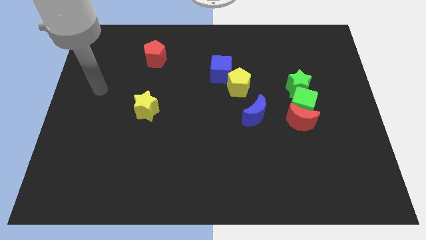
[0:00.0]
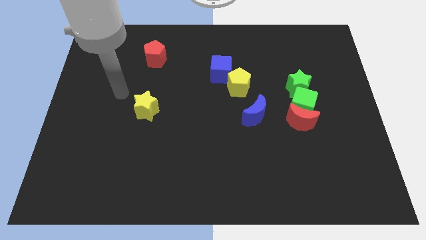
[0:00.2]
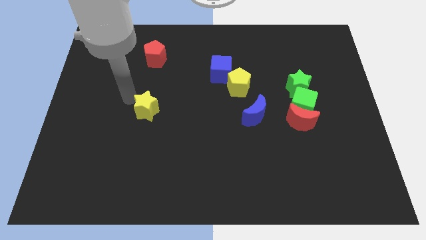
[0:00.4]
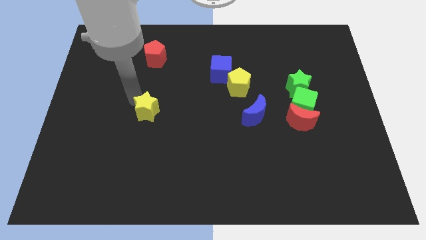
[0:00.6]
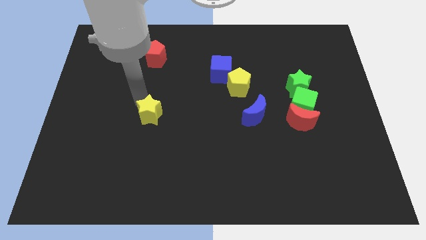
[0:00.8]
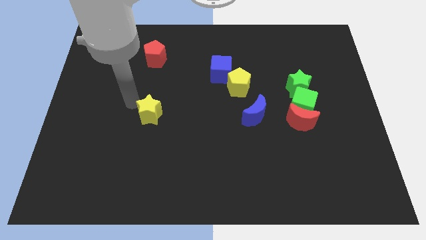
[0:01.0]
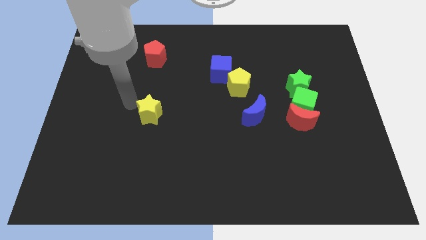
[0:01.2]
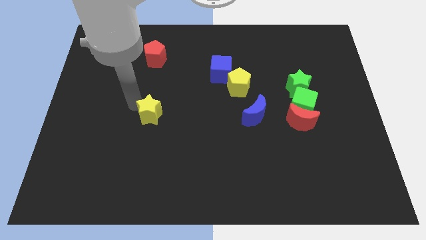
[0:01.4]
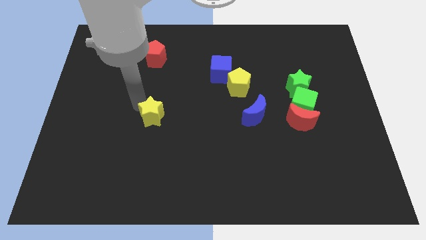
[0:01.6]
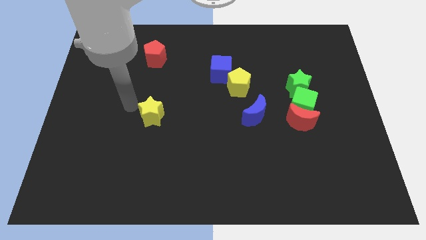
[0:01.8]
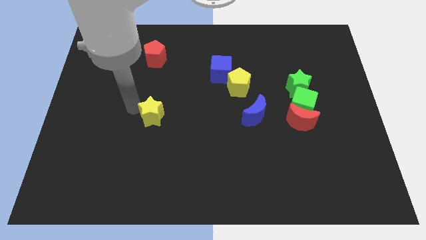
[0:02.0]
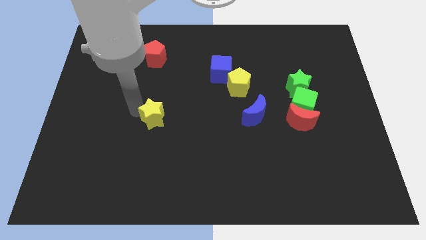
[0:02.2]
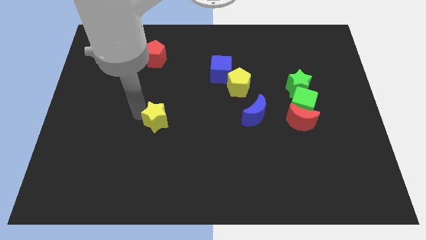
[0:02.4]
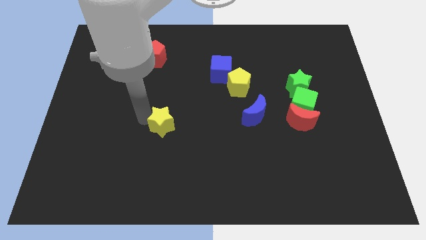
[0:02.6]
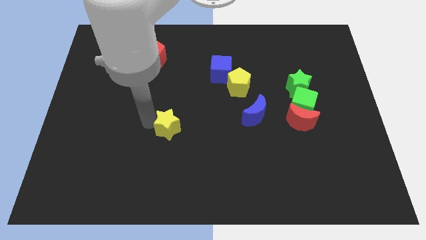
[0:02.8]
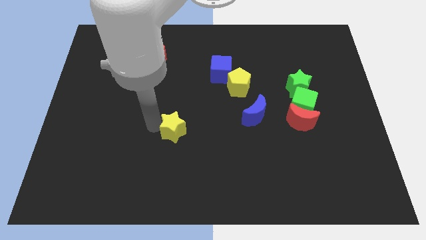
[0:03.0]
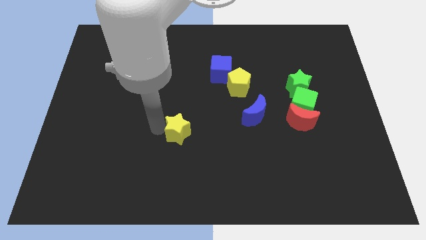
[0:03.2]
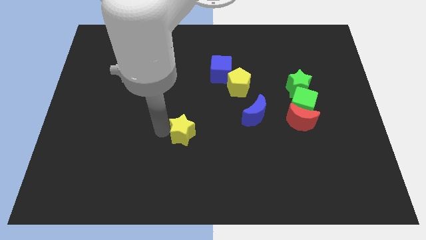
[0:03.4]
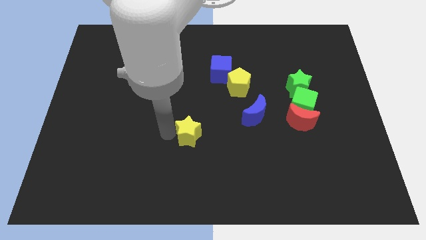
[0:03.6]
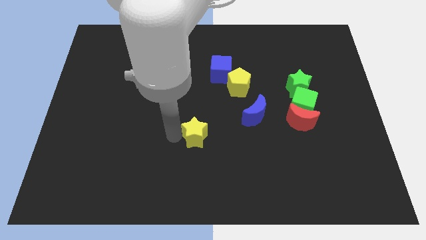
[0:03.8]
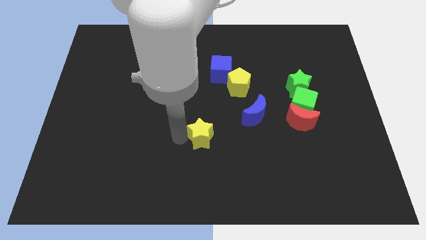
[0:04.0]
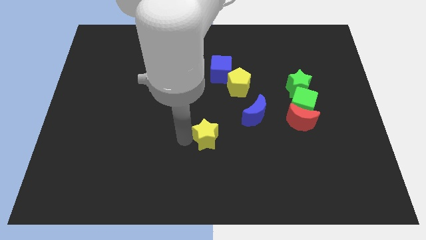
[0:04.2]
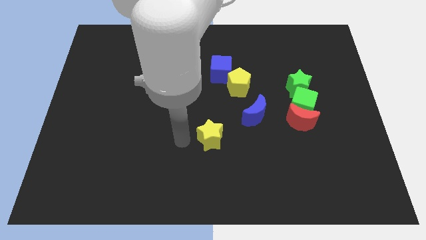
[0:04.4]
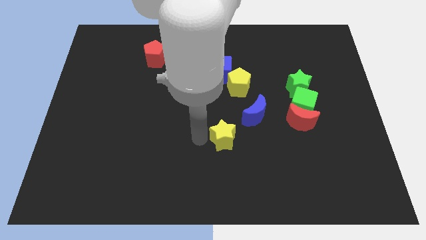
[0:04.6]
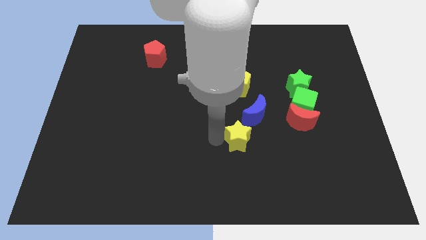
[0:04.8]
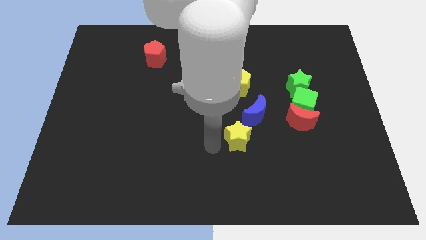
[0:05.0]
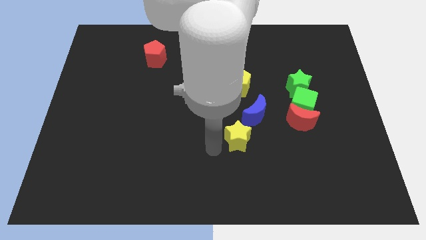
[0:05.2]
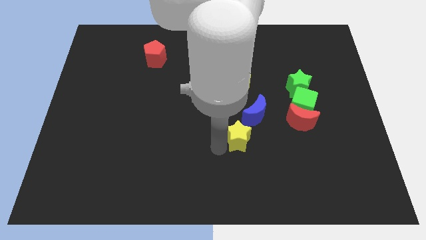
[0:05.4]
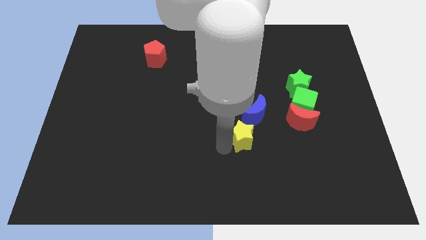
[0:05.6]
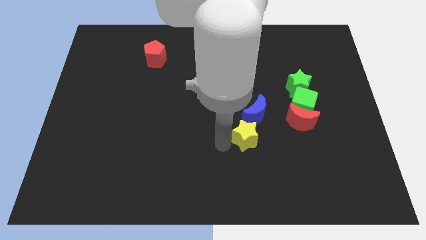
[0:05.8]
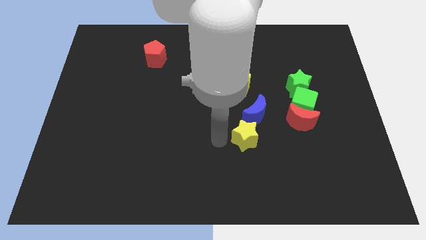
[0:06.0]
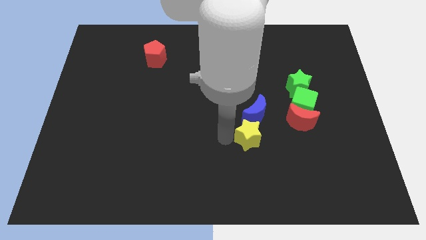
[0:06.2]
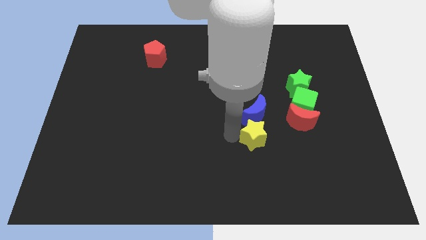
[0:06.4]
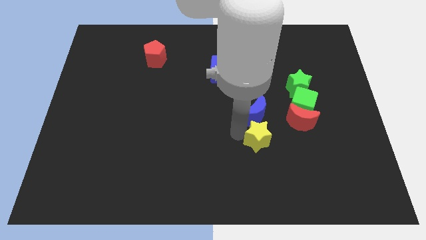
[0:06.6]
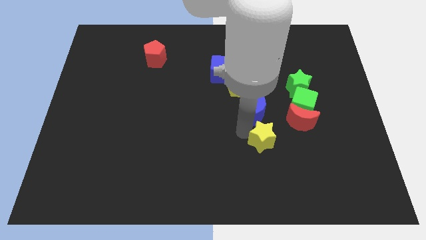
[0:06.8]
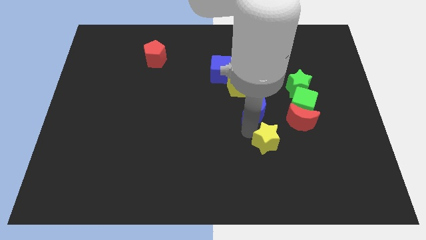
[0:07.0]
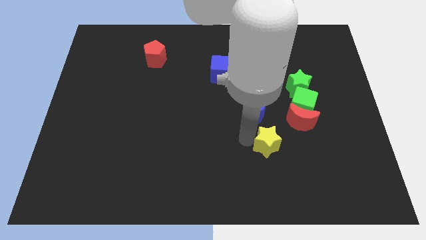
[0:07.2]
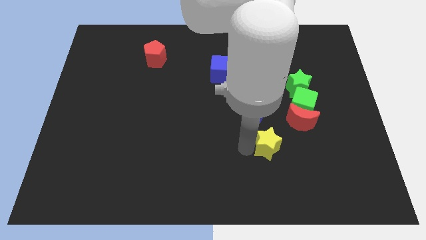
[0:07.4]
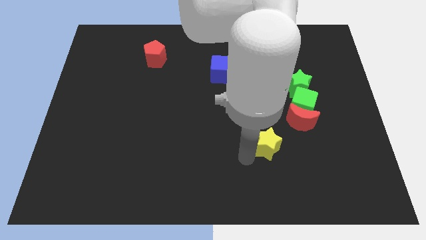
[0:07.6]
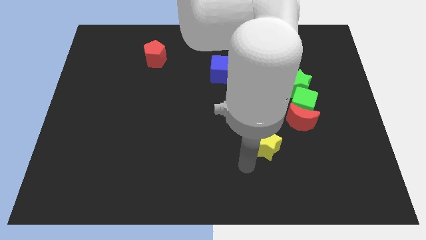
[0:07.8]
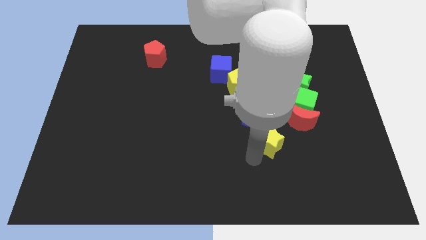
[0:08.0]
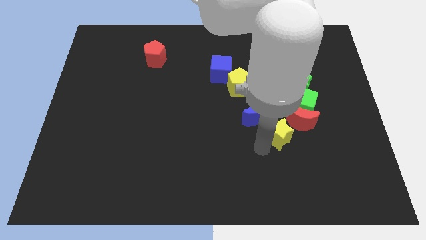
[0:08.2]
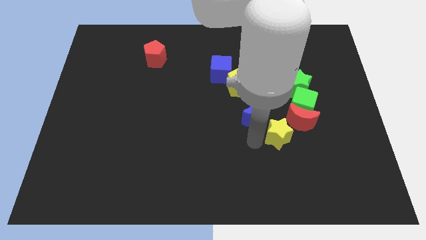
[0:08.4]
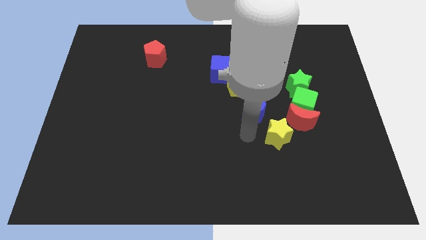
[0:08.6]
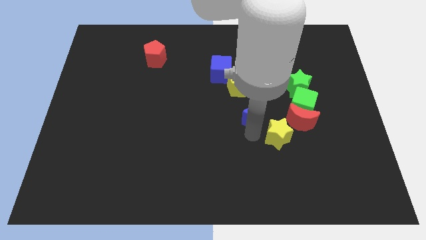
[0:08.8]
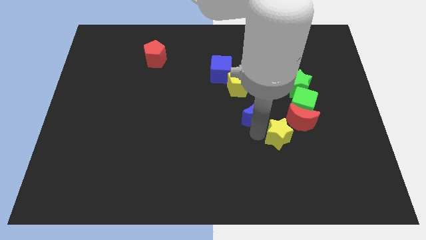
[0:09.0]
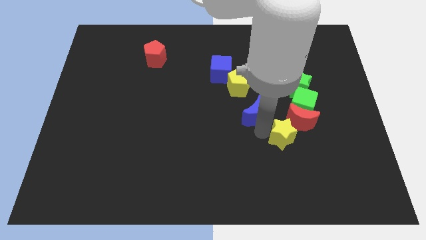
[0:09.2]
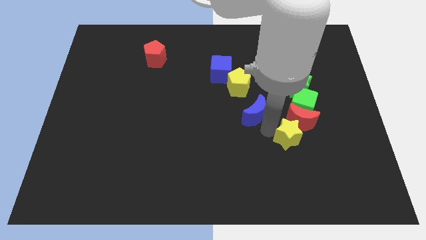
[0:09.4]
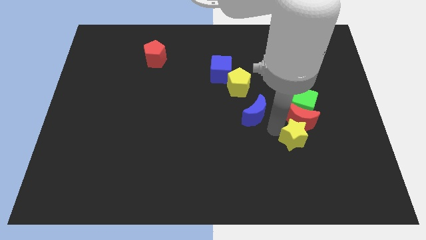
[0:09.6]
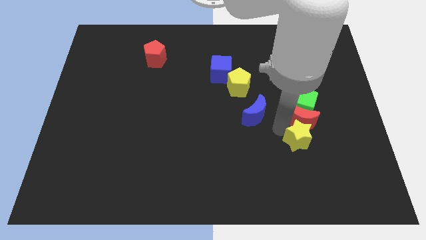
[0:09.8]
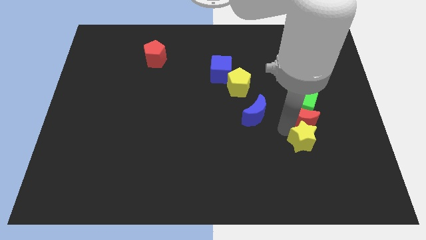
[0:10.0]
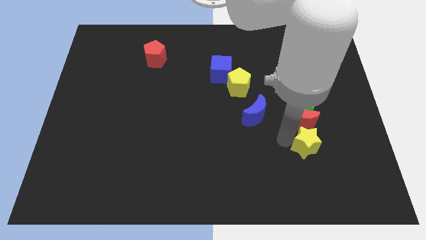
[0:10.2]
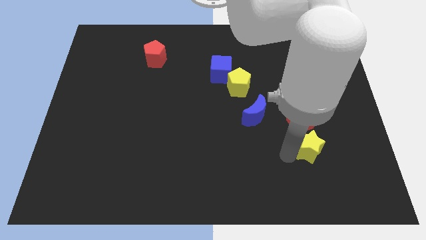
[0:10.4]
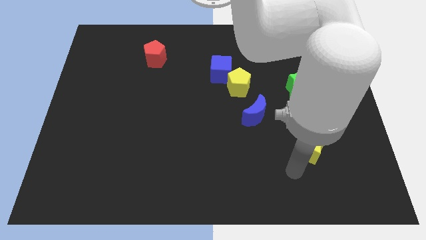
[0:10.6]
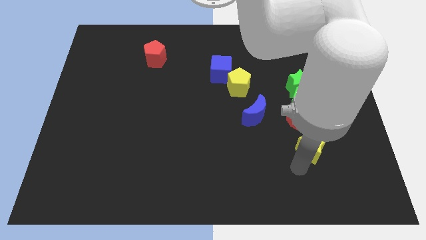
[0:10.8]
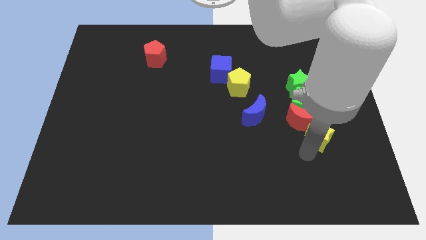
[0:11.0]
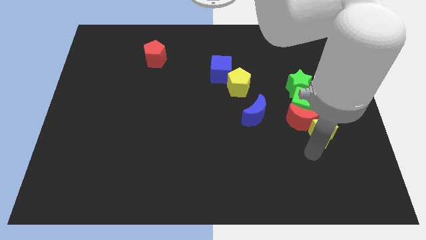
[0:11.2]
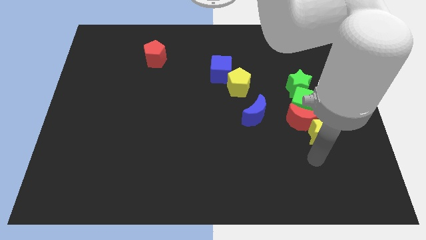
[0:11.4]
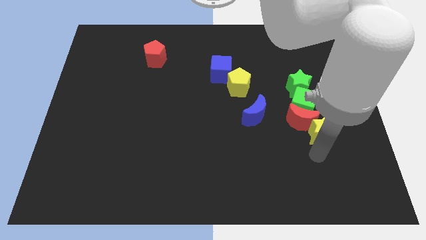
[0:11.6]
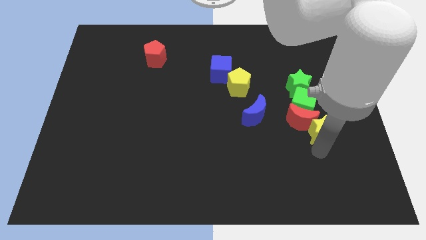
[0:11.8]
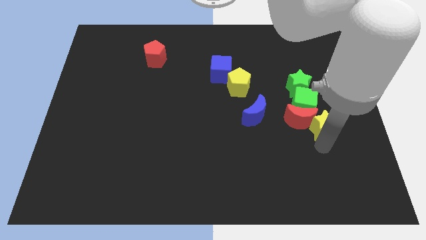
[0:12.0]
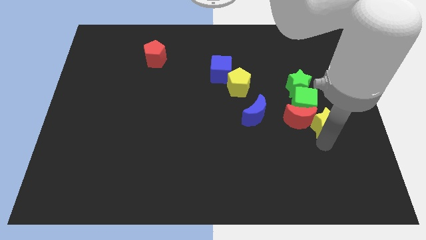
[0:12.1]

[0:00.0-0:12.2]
push the yellow star to the top right side of the red moon
